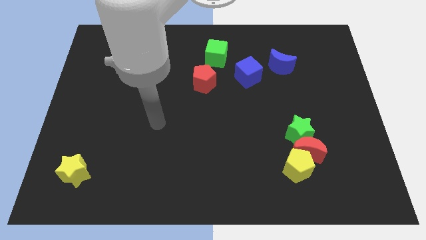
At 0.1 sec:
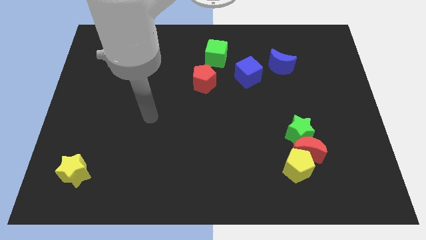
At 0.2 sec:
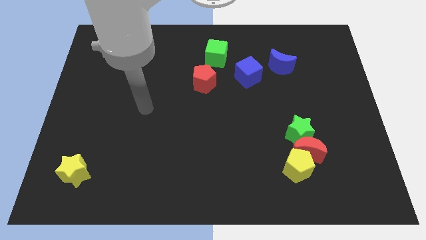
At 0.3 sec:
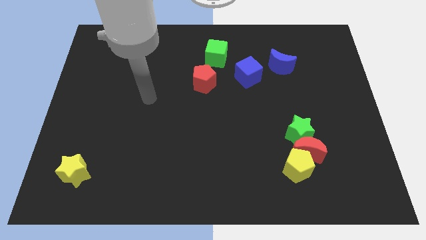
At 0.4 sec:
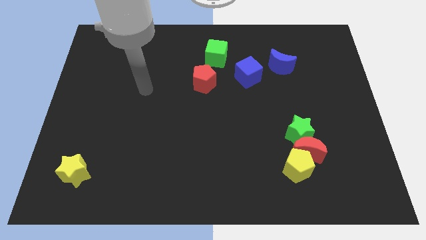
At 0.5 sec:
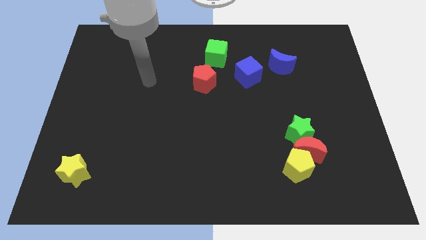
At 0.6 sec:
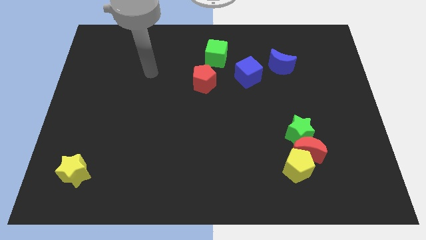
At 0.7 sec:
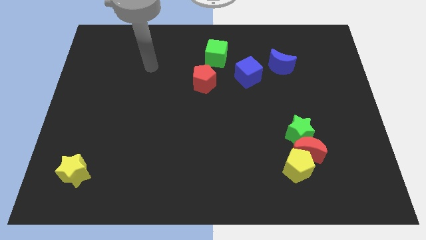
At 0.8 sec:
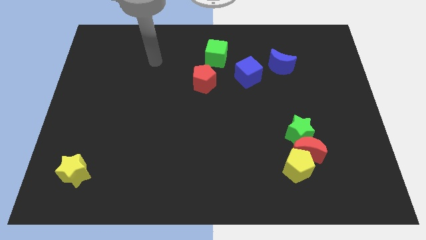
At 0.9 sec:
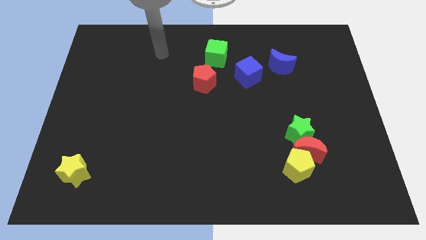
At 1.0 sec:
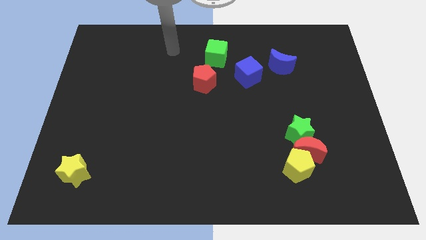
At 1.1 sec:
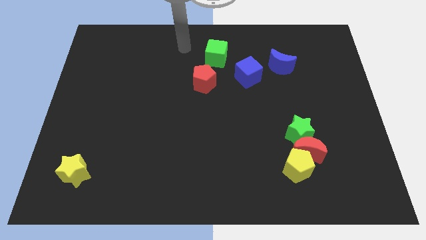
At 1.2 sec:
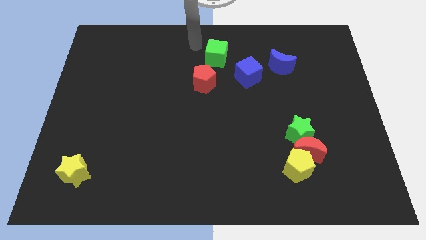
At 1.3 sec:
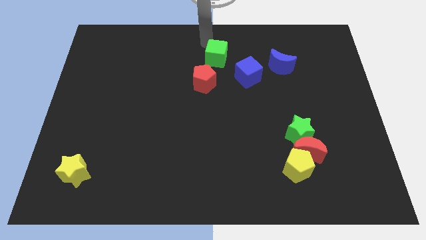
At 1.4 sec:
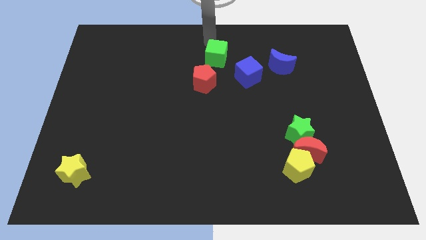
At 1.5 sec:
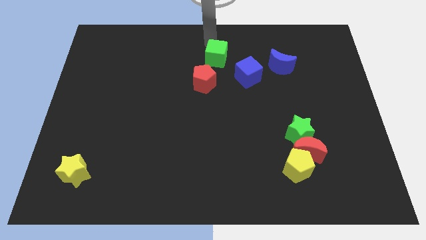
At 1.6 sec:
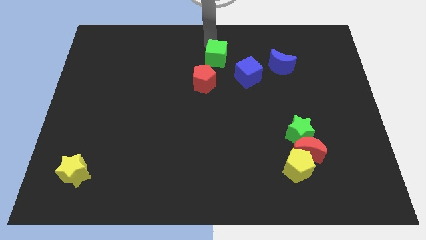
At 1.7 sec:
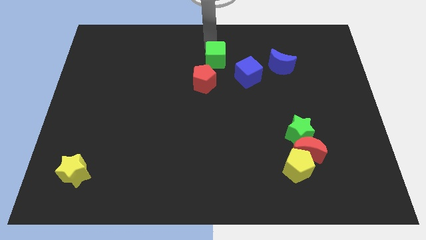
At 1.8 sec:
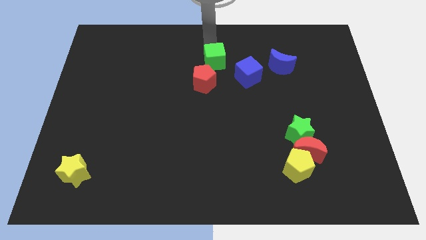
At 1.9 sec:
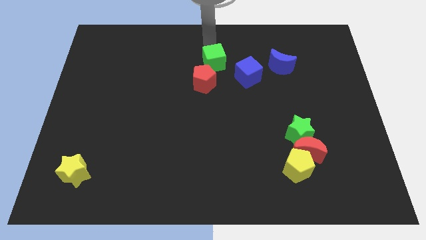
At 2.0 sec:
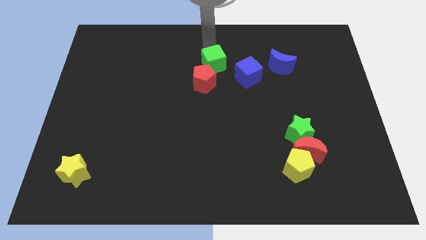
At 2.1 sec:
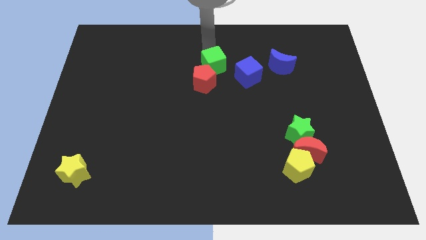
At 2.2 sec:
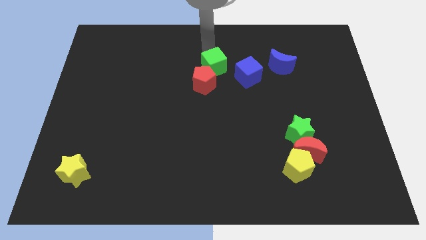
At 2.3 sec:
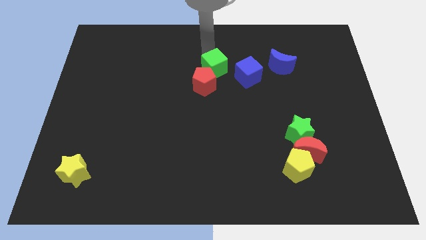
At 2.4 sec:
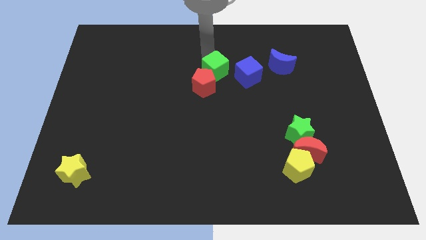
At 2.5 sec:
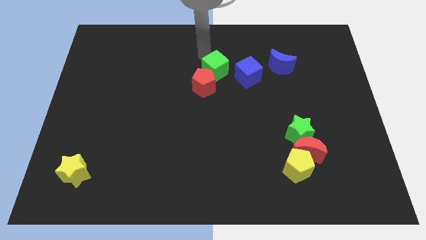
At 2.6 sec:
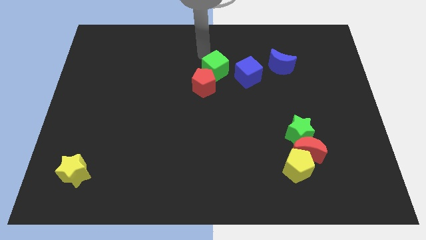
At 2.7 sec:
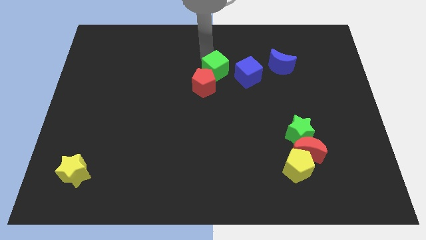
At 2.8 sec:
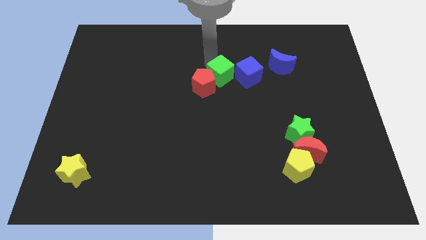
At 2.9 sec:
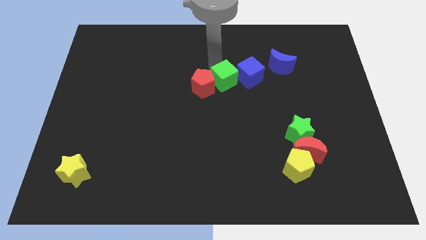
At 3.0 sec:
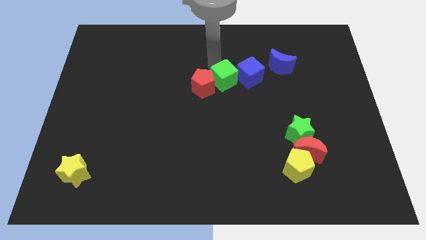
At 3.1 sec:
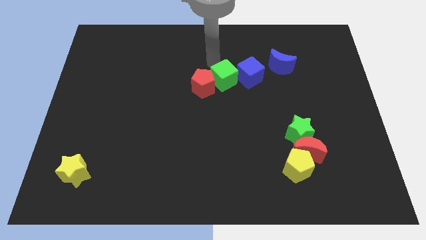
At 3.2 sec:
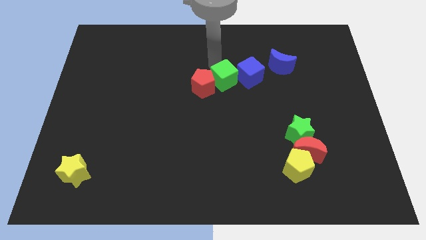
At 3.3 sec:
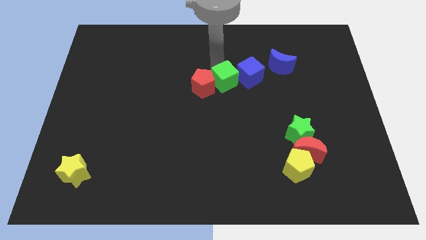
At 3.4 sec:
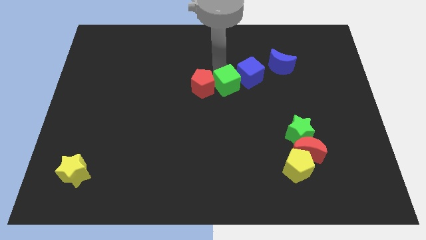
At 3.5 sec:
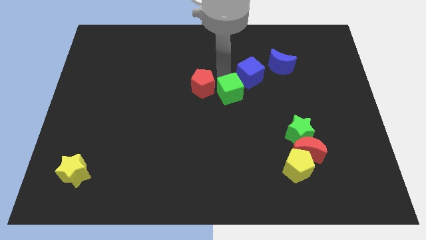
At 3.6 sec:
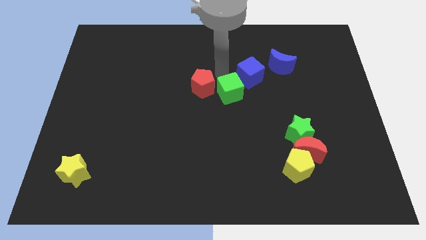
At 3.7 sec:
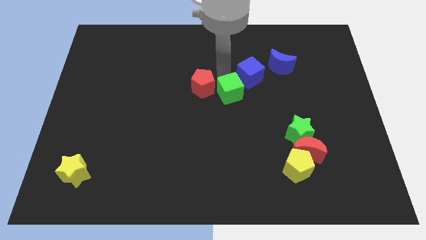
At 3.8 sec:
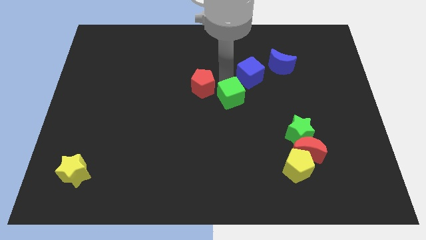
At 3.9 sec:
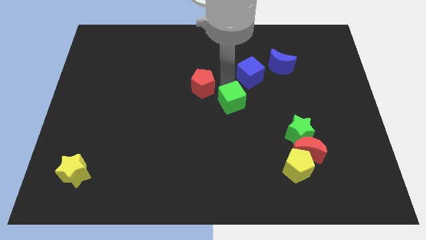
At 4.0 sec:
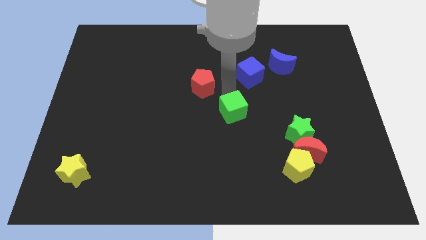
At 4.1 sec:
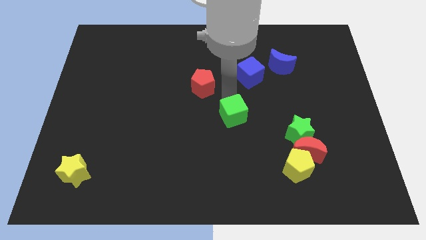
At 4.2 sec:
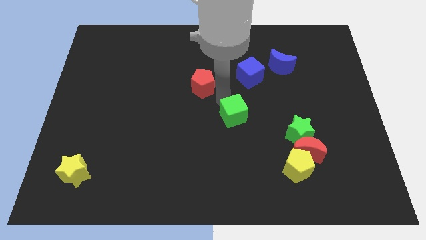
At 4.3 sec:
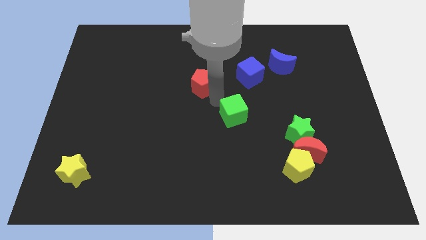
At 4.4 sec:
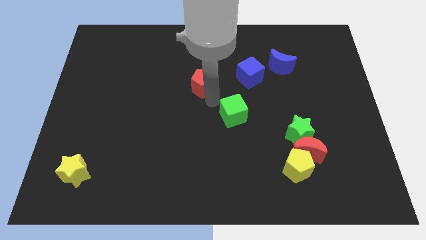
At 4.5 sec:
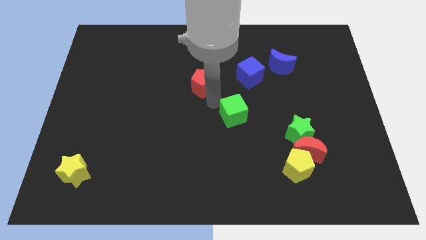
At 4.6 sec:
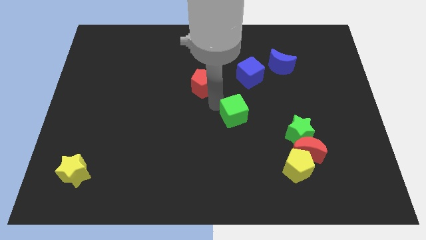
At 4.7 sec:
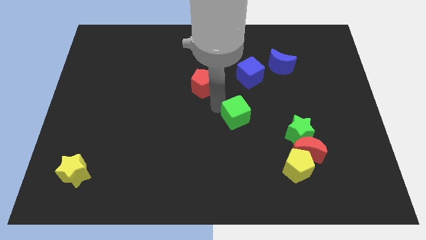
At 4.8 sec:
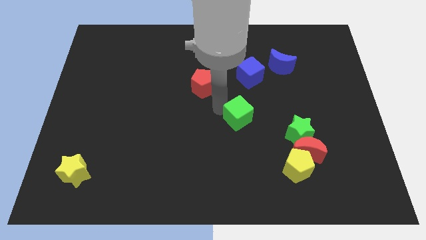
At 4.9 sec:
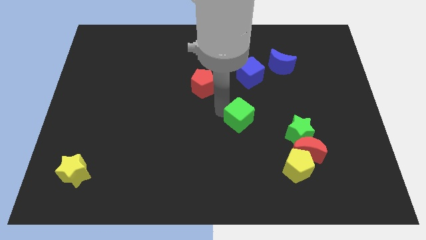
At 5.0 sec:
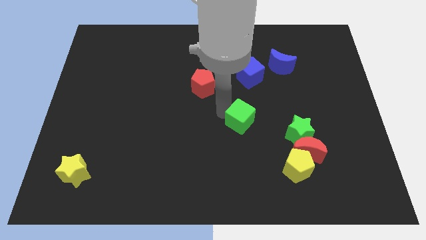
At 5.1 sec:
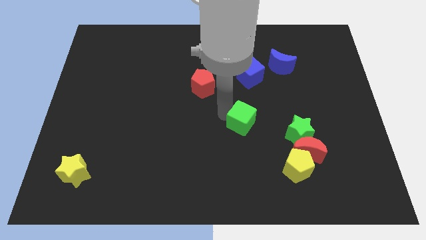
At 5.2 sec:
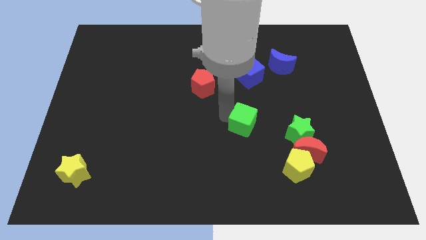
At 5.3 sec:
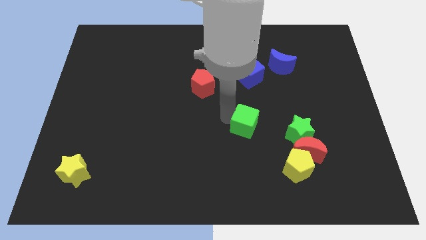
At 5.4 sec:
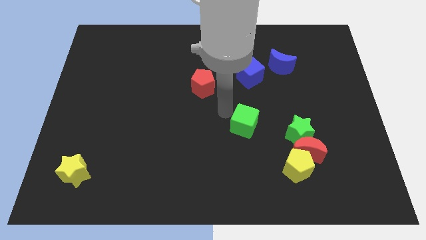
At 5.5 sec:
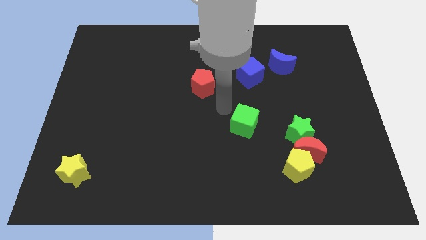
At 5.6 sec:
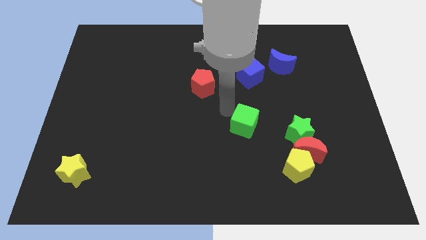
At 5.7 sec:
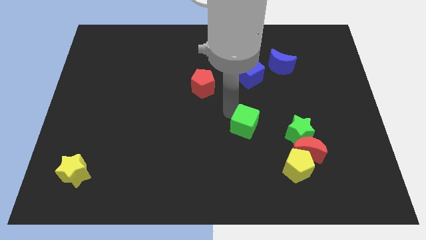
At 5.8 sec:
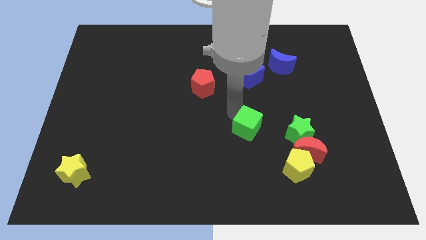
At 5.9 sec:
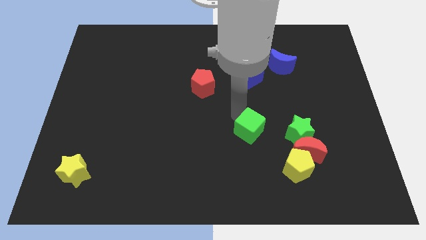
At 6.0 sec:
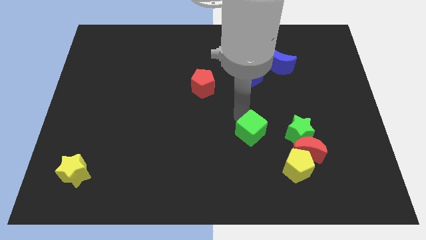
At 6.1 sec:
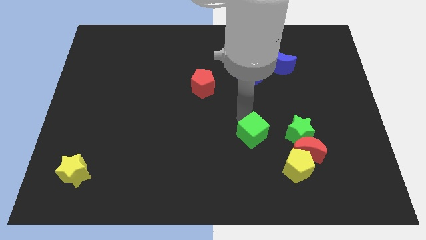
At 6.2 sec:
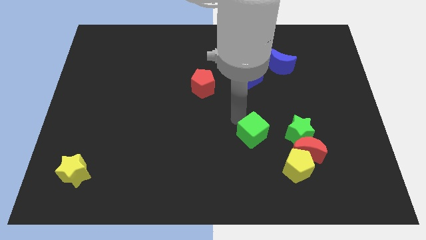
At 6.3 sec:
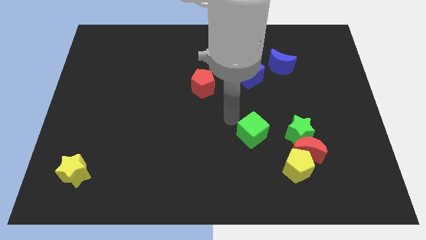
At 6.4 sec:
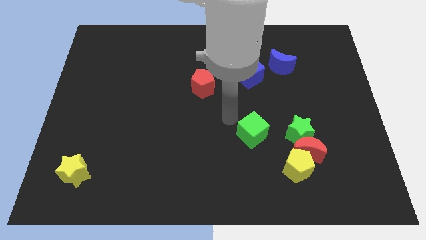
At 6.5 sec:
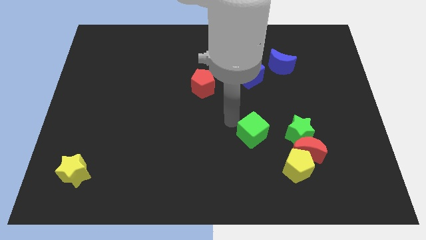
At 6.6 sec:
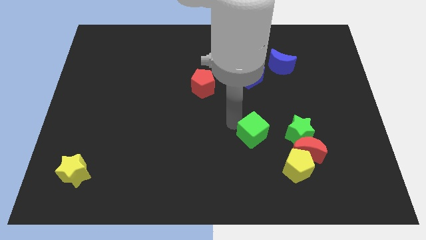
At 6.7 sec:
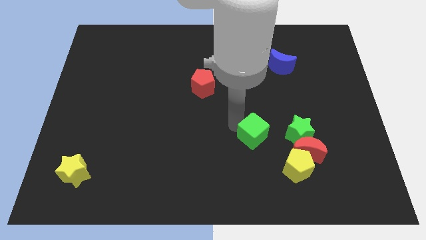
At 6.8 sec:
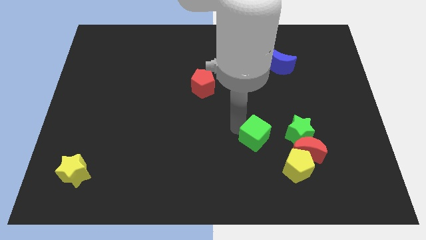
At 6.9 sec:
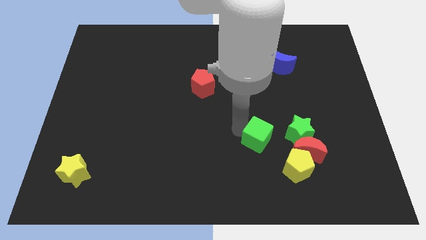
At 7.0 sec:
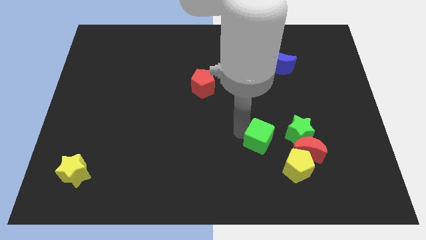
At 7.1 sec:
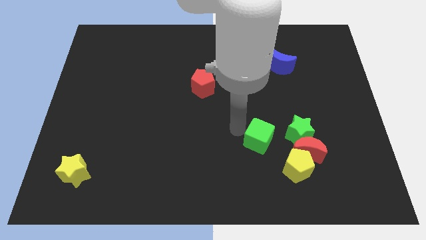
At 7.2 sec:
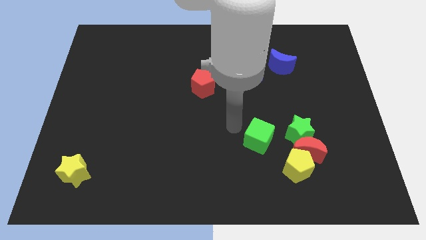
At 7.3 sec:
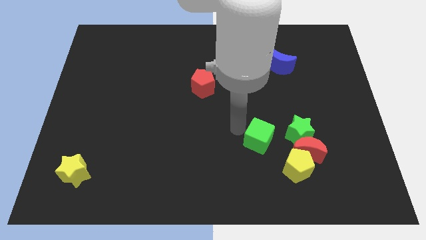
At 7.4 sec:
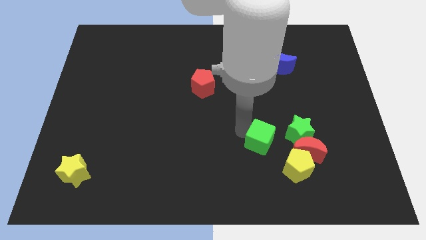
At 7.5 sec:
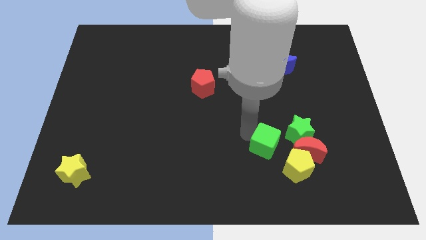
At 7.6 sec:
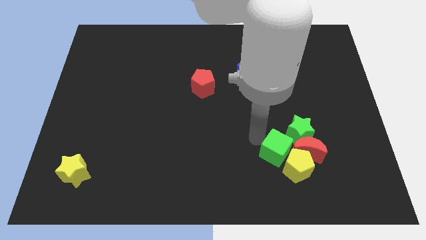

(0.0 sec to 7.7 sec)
put the green cube next to the yellow pentagon

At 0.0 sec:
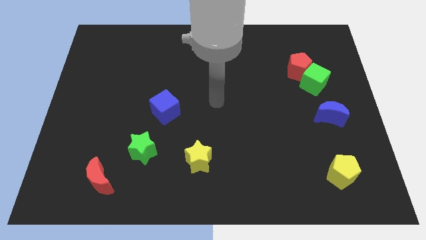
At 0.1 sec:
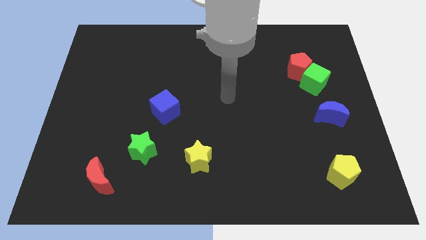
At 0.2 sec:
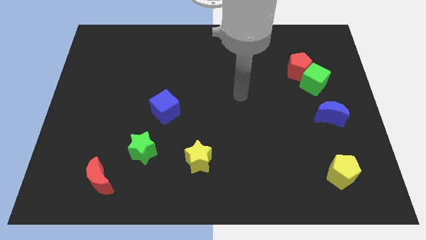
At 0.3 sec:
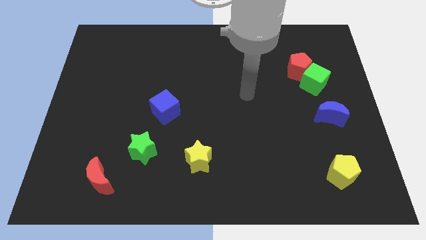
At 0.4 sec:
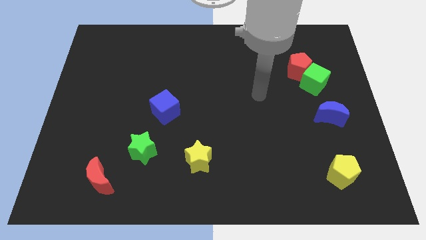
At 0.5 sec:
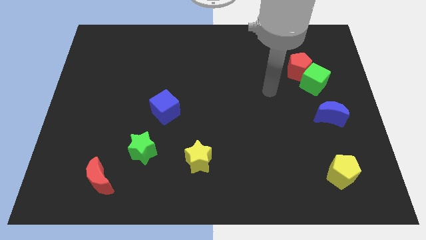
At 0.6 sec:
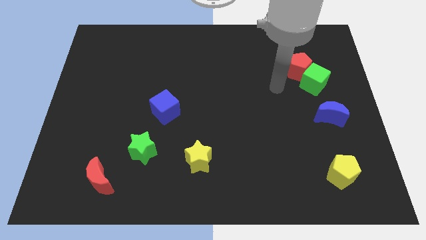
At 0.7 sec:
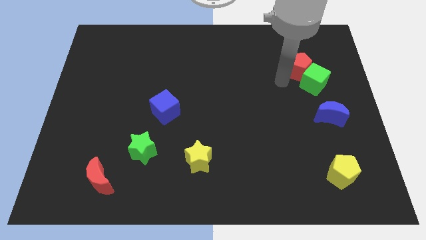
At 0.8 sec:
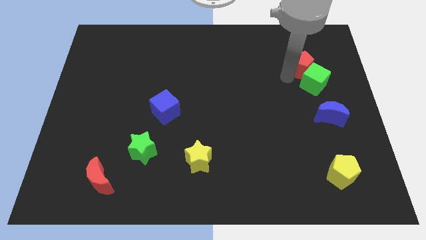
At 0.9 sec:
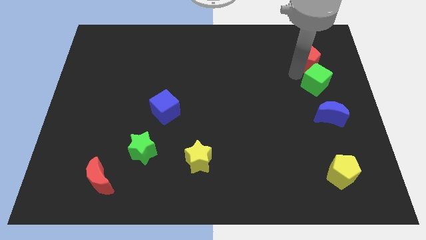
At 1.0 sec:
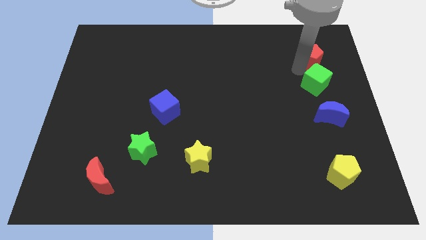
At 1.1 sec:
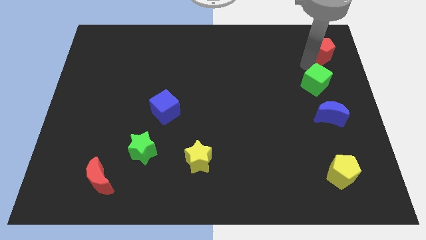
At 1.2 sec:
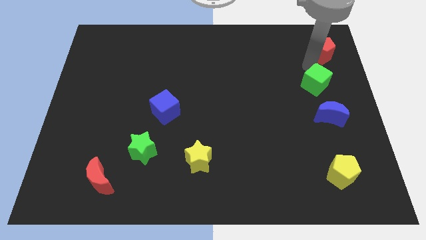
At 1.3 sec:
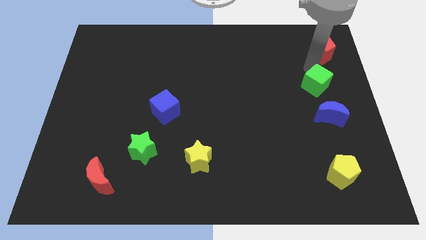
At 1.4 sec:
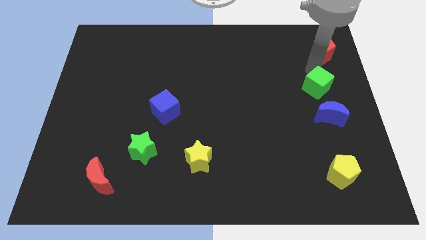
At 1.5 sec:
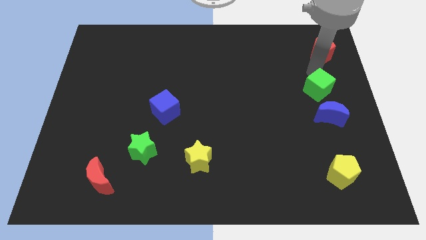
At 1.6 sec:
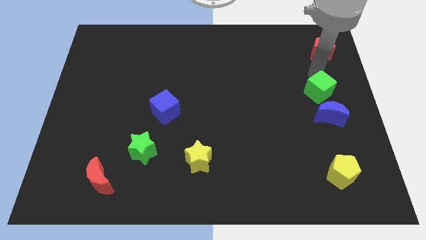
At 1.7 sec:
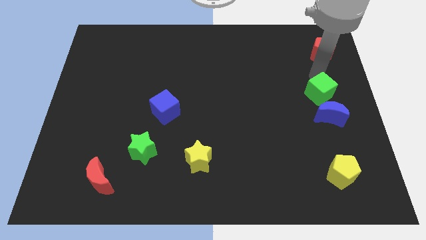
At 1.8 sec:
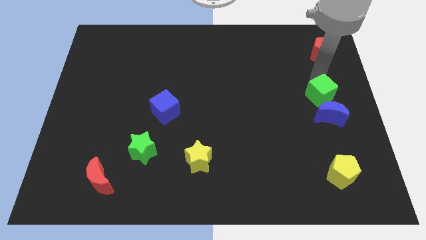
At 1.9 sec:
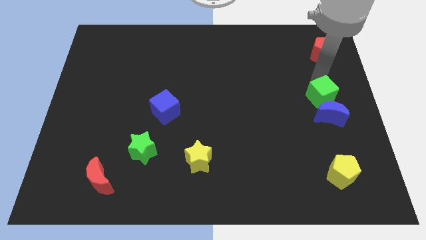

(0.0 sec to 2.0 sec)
move the green cube to the blue moon
